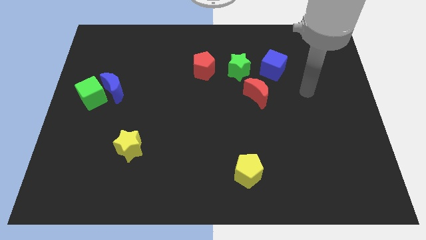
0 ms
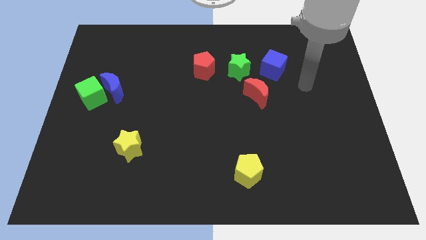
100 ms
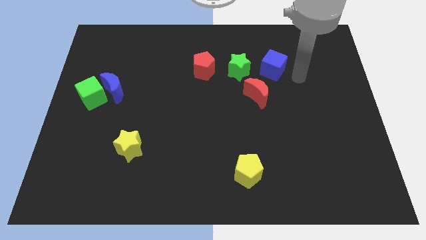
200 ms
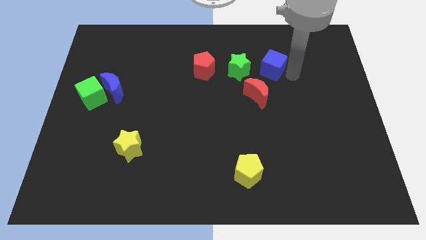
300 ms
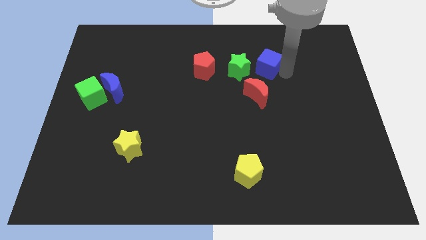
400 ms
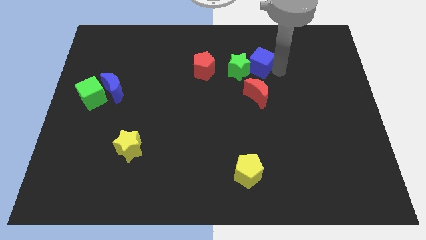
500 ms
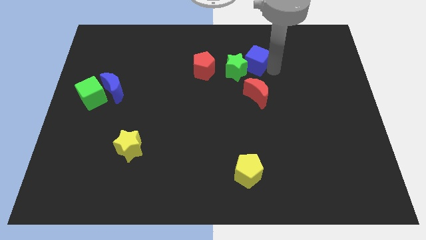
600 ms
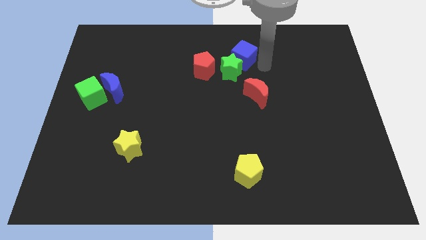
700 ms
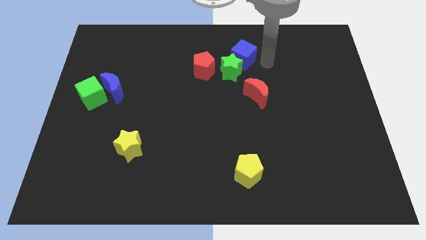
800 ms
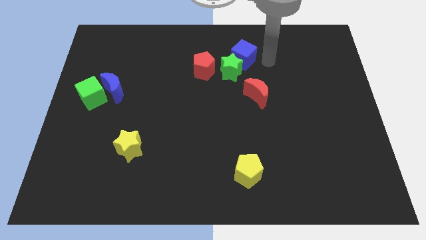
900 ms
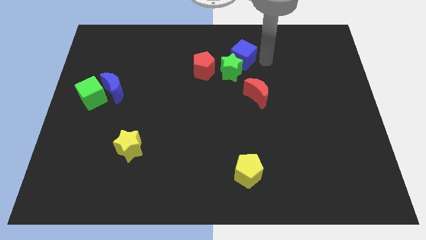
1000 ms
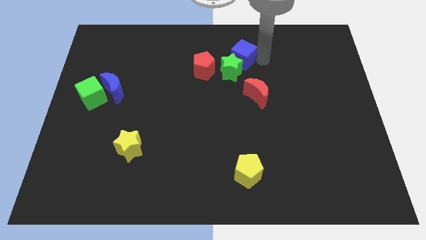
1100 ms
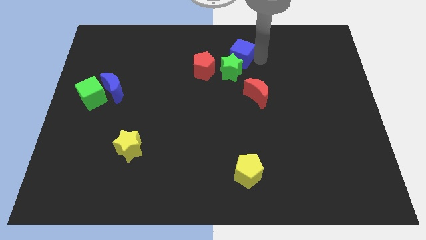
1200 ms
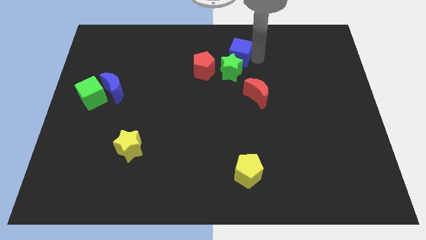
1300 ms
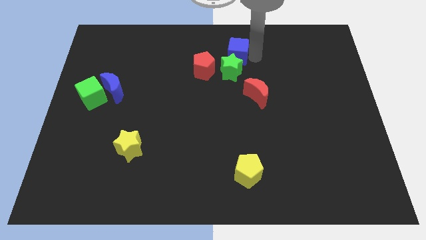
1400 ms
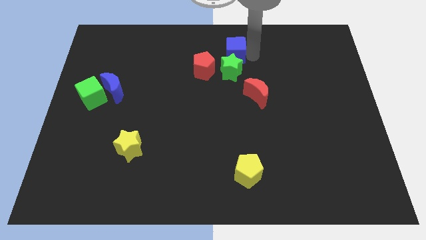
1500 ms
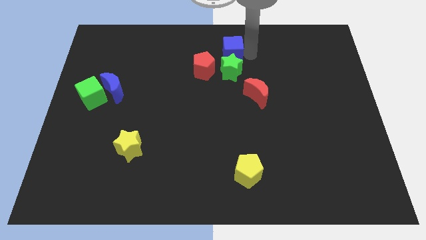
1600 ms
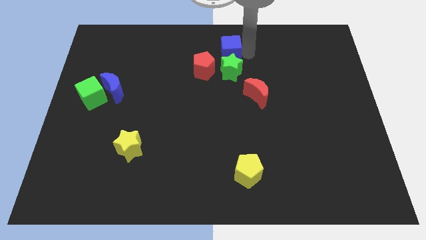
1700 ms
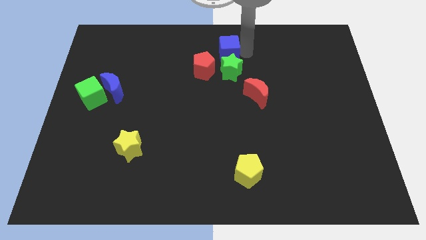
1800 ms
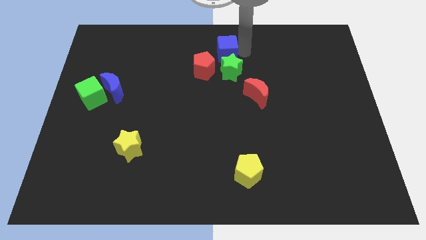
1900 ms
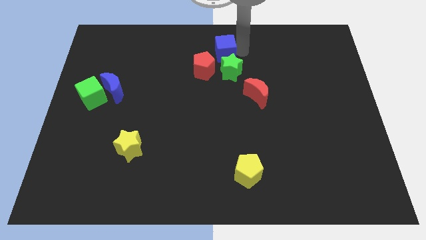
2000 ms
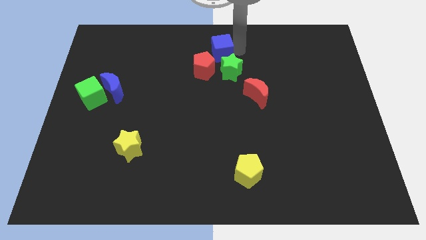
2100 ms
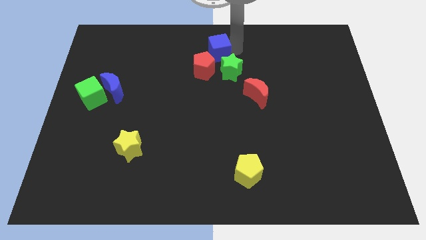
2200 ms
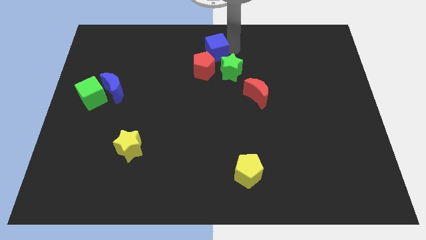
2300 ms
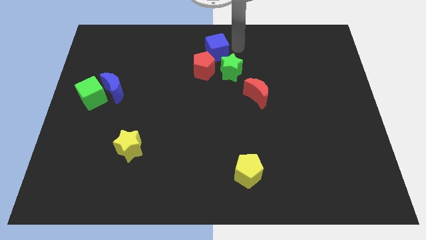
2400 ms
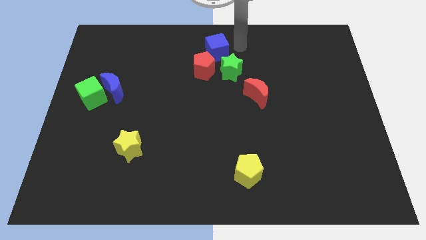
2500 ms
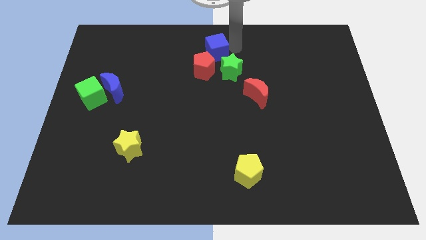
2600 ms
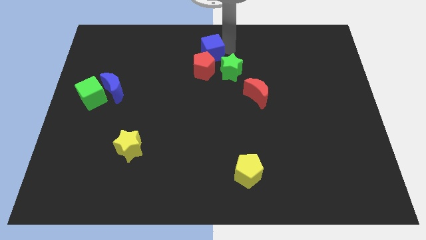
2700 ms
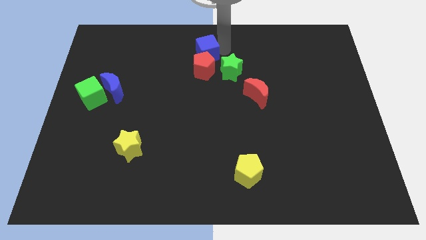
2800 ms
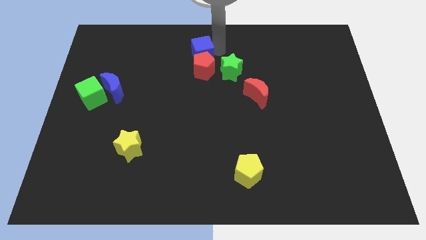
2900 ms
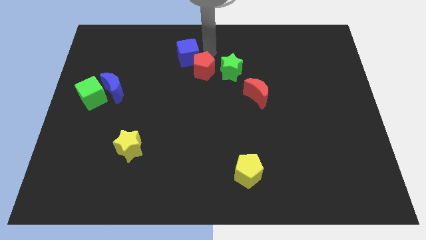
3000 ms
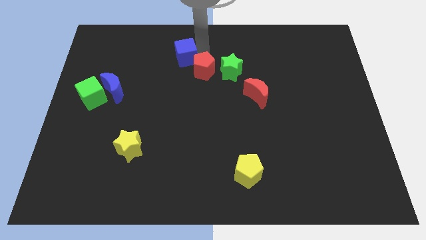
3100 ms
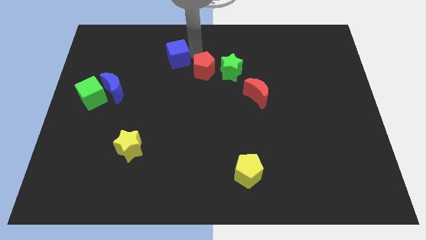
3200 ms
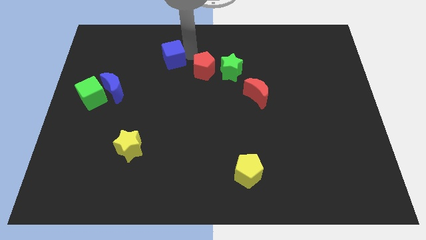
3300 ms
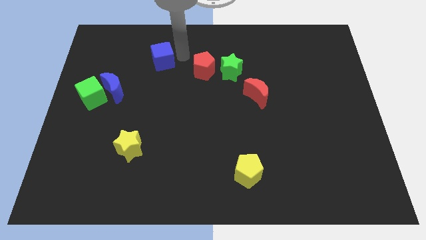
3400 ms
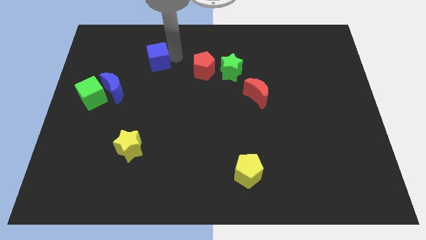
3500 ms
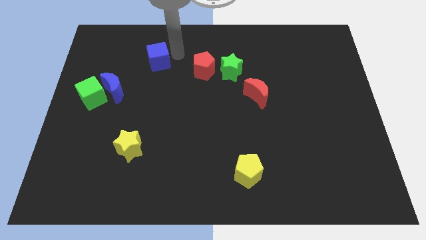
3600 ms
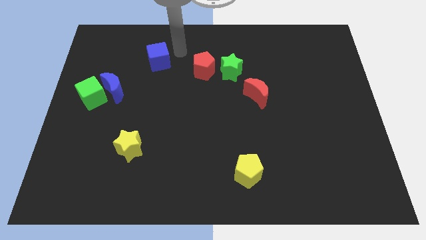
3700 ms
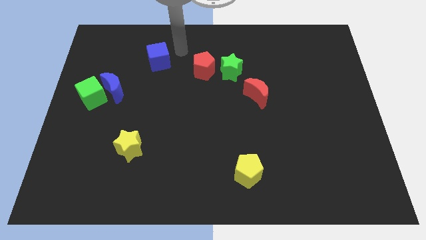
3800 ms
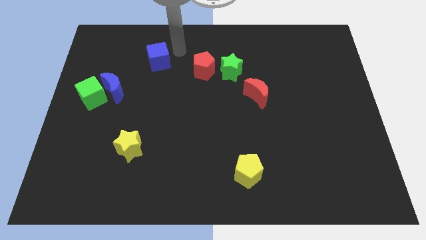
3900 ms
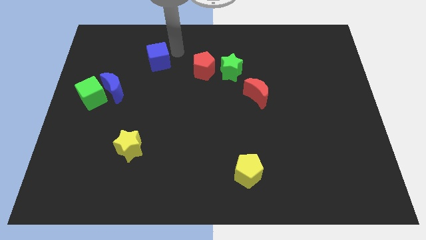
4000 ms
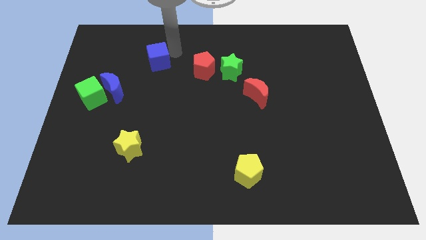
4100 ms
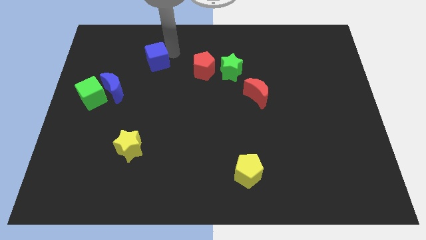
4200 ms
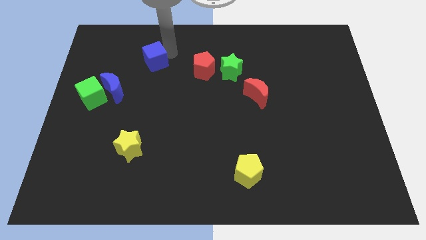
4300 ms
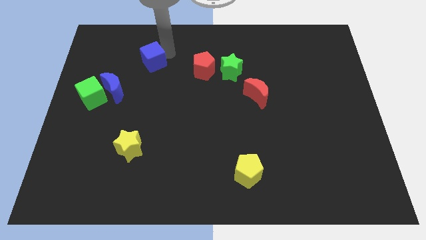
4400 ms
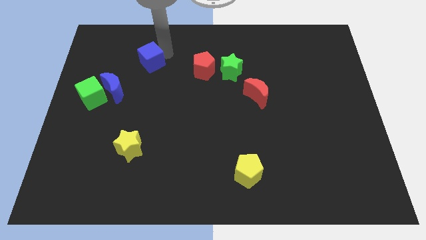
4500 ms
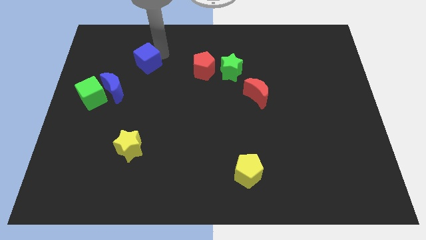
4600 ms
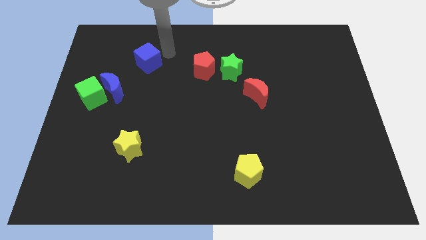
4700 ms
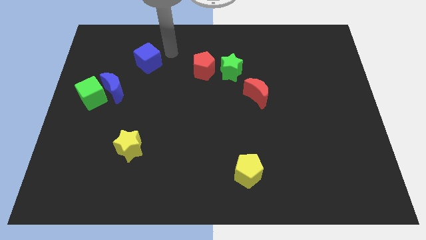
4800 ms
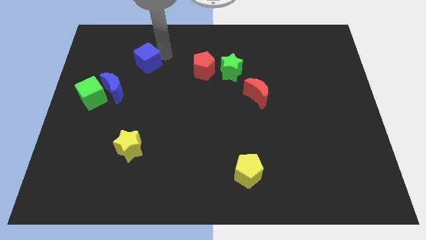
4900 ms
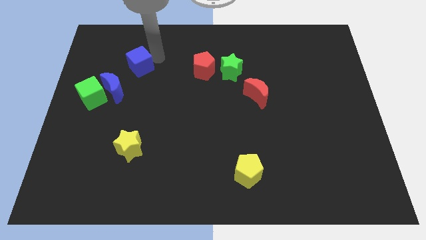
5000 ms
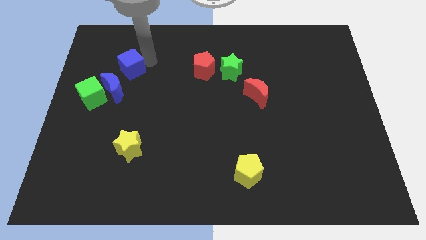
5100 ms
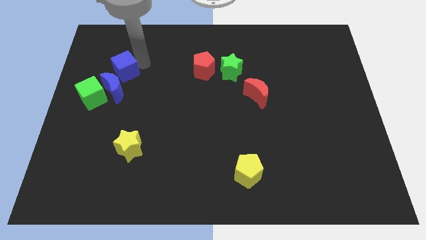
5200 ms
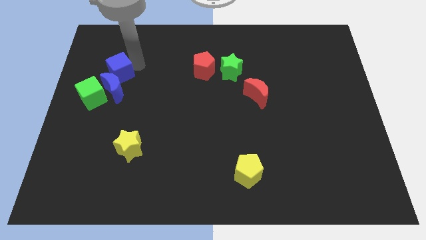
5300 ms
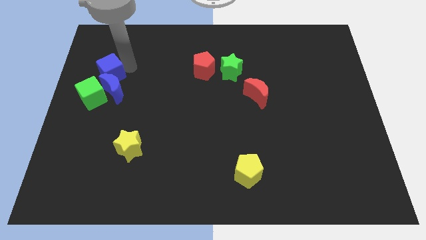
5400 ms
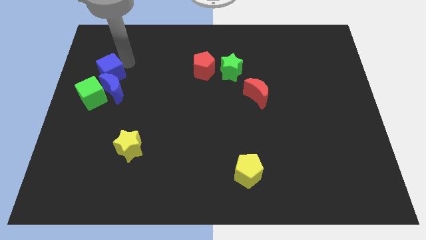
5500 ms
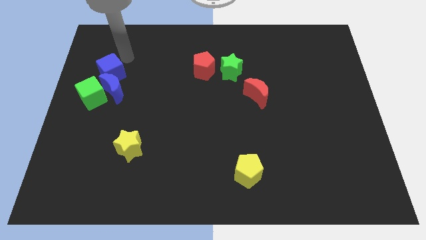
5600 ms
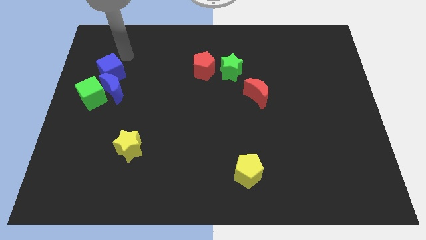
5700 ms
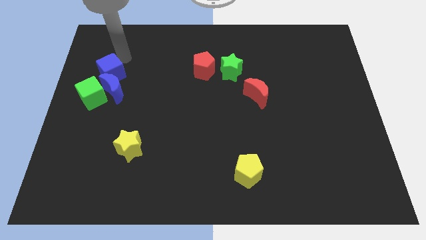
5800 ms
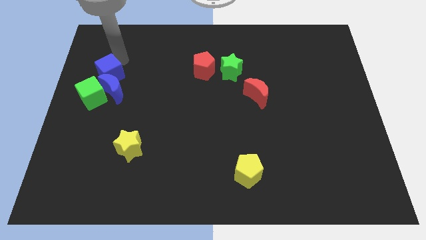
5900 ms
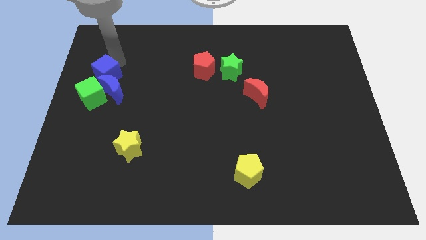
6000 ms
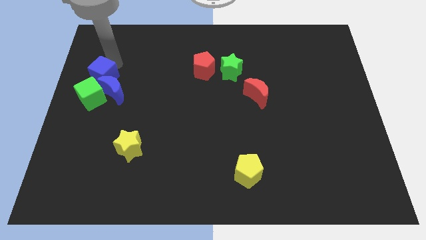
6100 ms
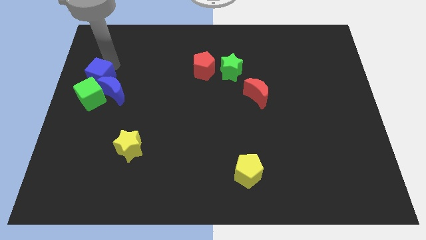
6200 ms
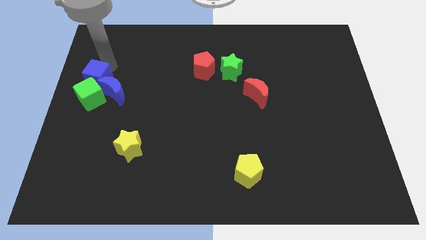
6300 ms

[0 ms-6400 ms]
move the blue cube close to the green cube

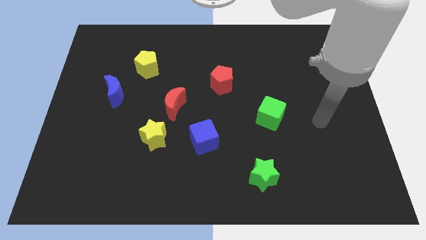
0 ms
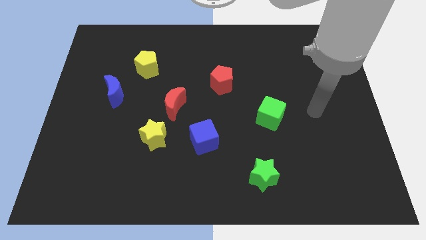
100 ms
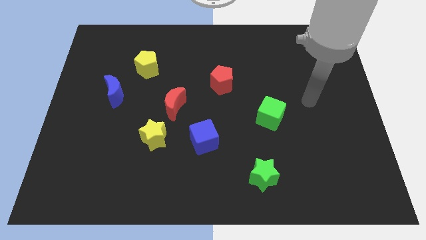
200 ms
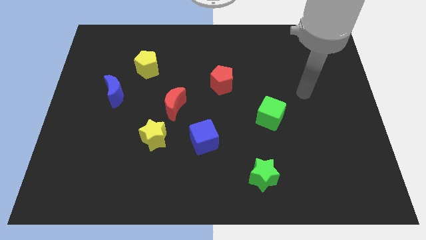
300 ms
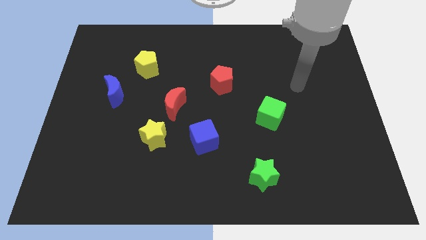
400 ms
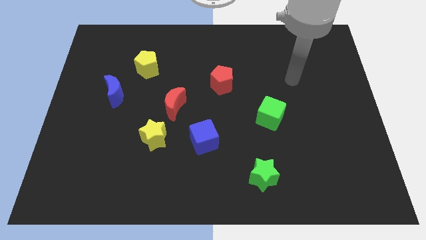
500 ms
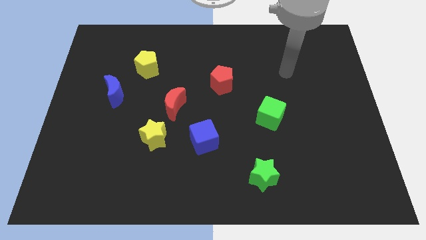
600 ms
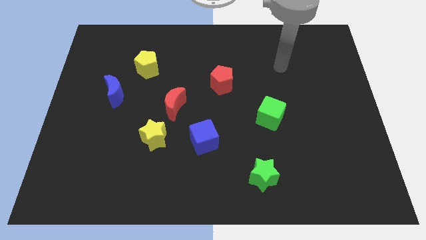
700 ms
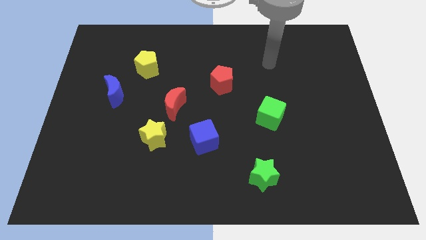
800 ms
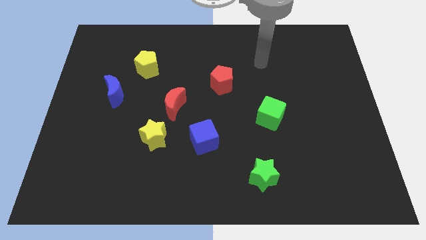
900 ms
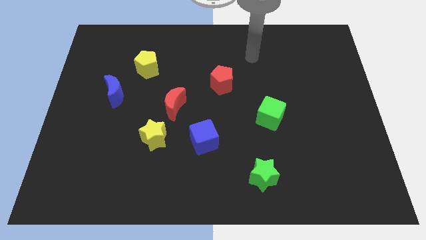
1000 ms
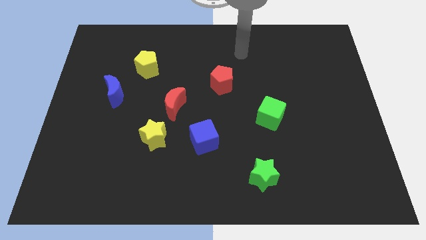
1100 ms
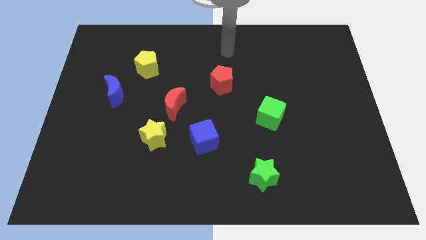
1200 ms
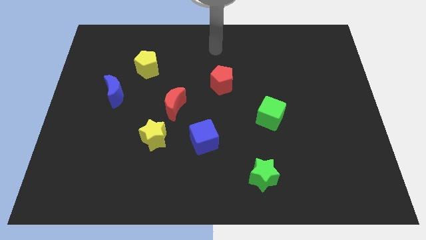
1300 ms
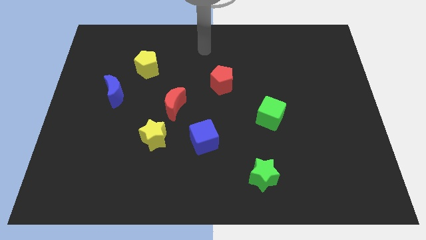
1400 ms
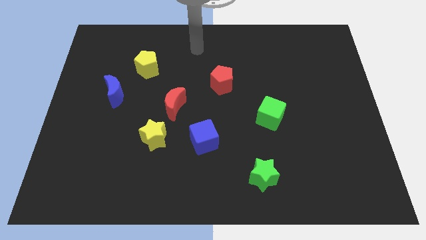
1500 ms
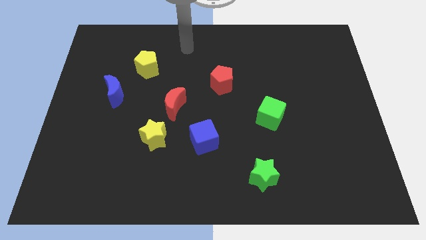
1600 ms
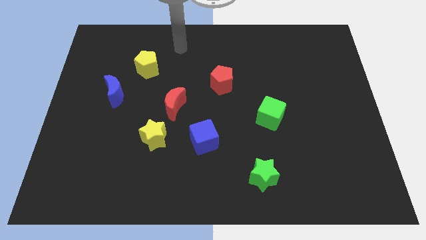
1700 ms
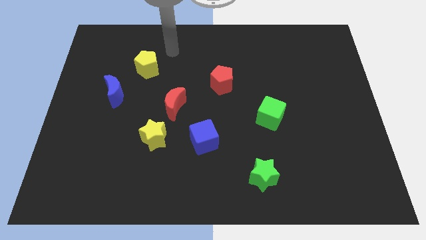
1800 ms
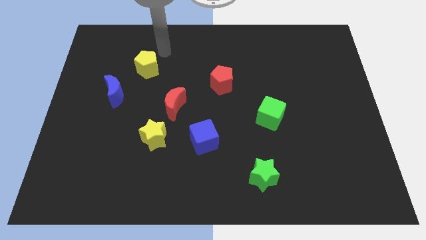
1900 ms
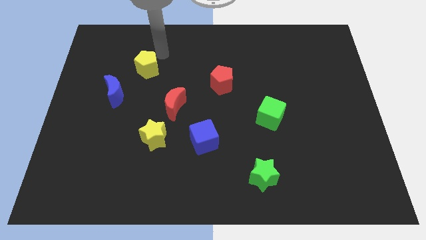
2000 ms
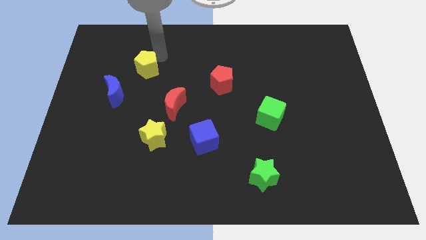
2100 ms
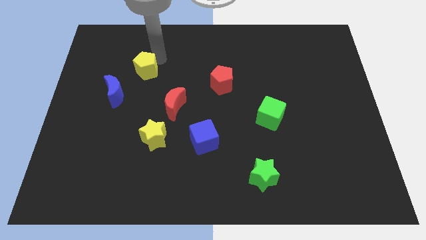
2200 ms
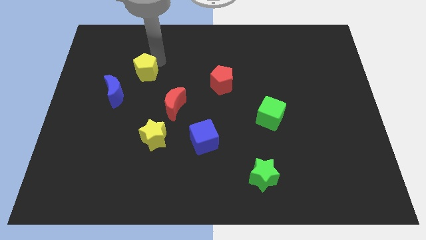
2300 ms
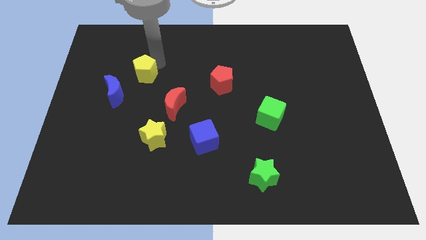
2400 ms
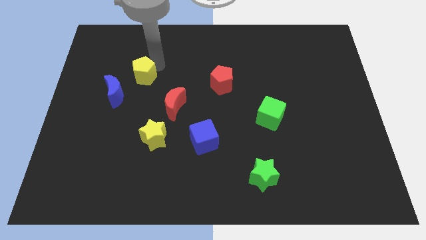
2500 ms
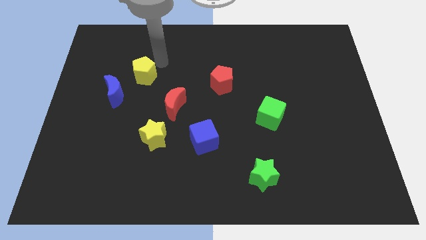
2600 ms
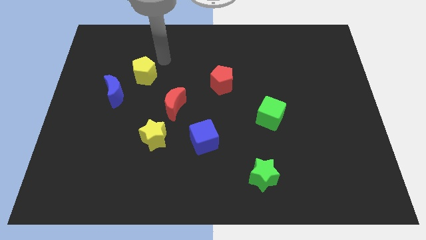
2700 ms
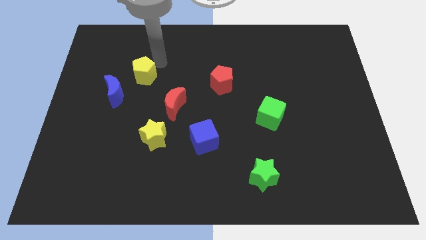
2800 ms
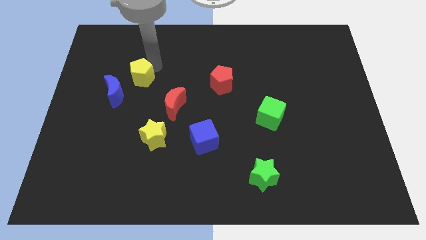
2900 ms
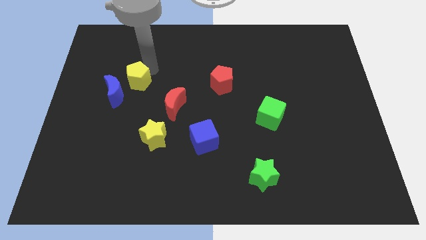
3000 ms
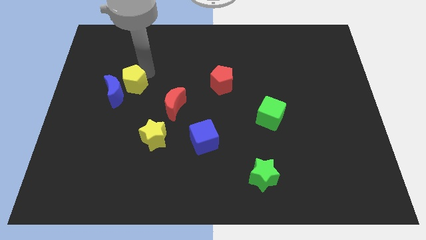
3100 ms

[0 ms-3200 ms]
slide the yellow pentagon to the blue moon
